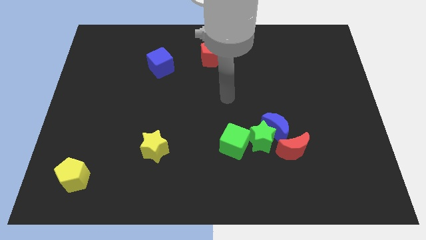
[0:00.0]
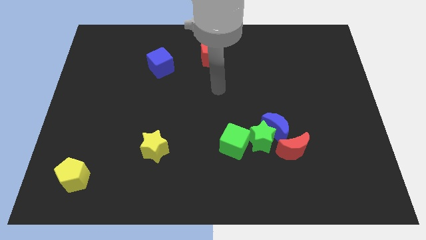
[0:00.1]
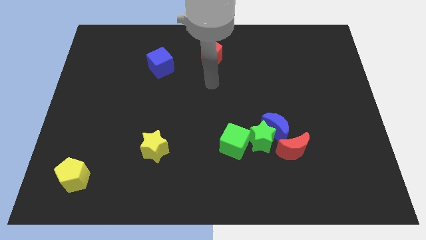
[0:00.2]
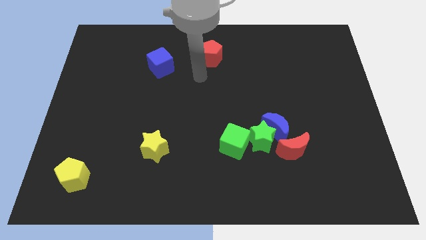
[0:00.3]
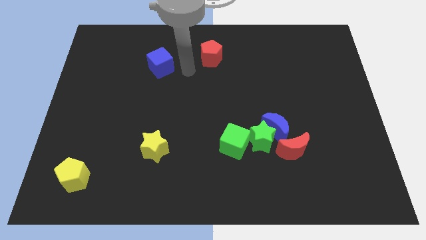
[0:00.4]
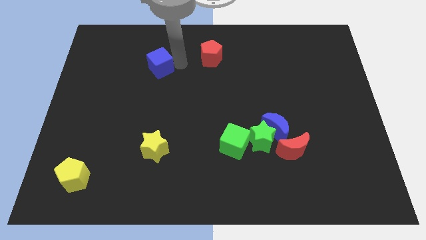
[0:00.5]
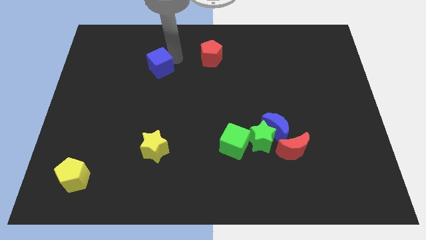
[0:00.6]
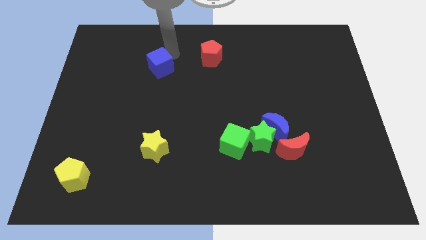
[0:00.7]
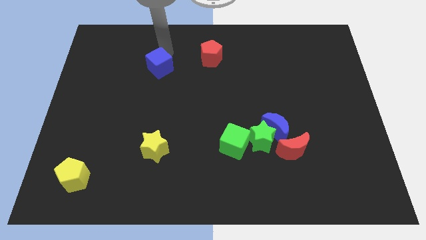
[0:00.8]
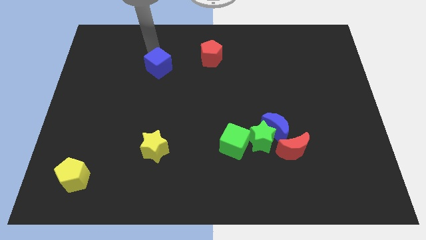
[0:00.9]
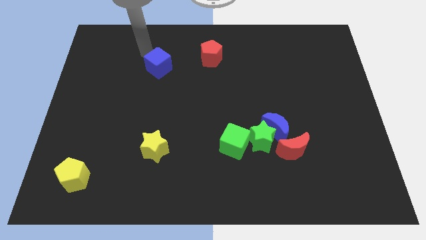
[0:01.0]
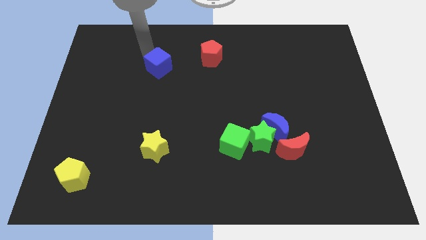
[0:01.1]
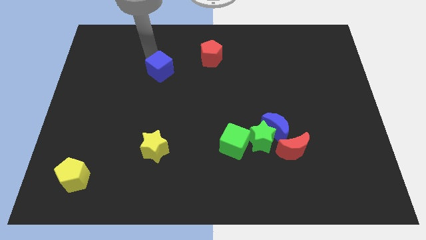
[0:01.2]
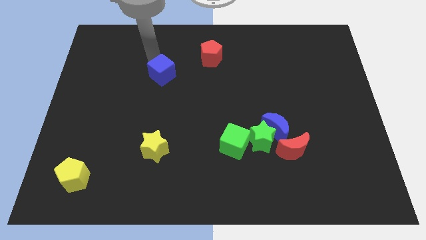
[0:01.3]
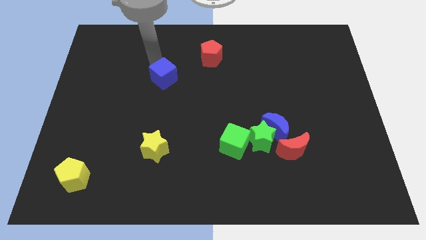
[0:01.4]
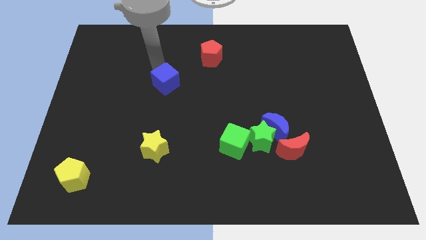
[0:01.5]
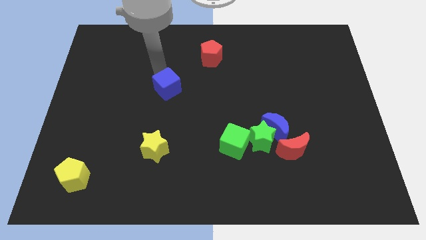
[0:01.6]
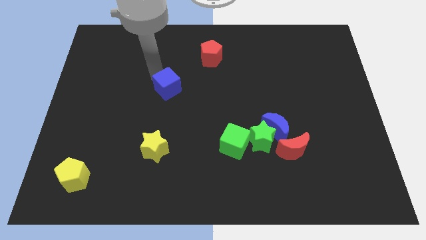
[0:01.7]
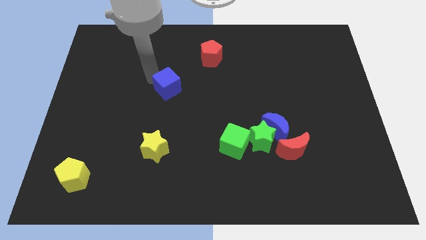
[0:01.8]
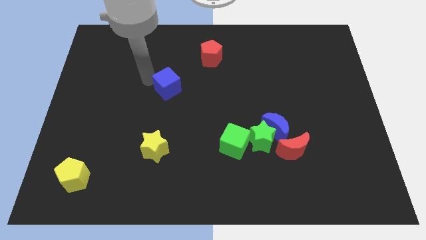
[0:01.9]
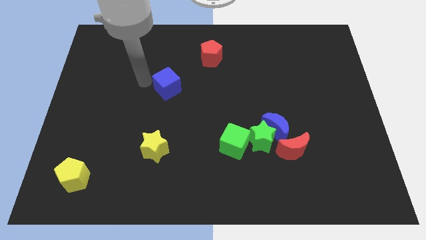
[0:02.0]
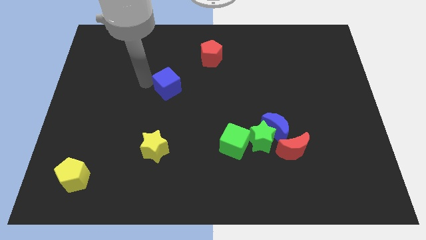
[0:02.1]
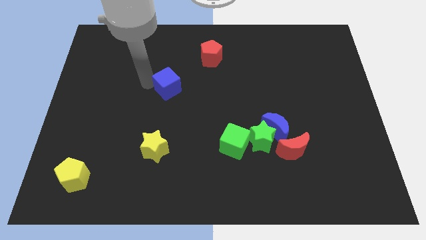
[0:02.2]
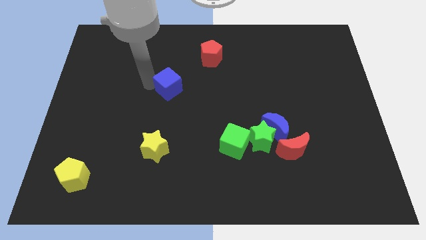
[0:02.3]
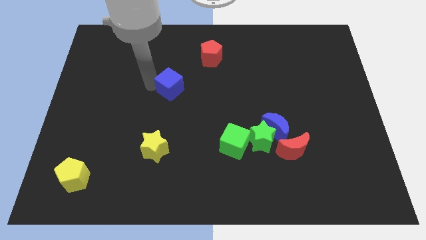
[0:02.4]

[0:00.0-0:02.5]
slightly push the blue cube downwards and then to the right

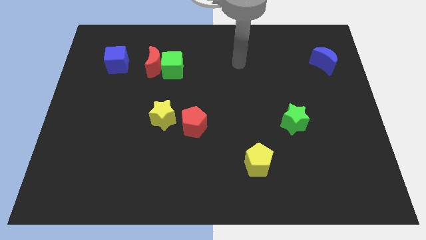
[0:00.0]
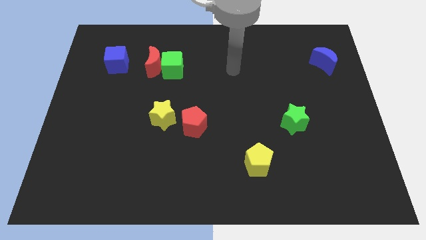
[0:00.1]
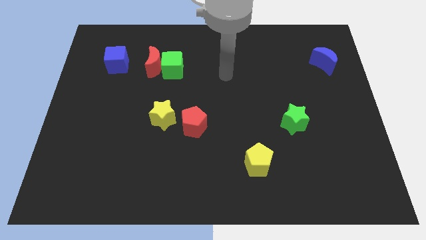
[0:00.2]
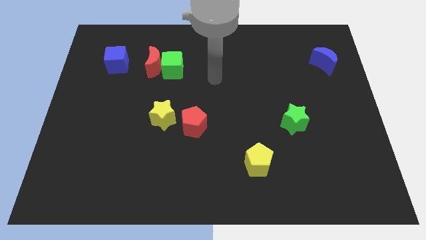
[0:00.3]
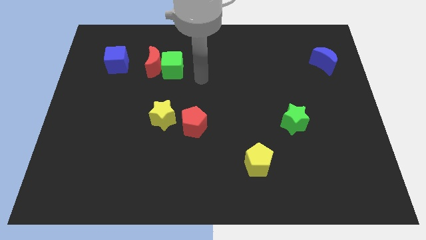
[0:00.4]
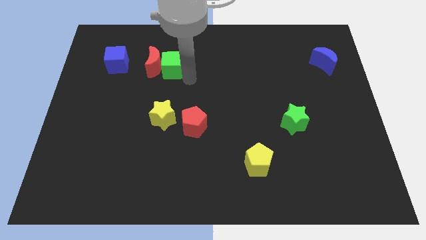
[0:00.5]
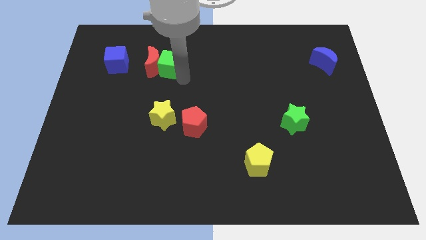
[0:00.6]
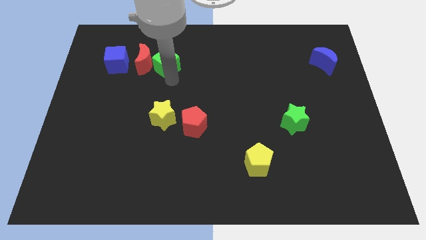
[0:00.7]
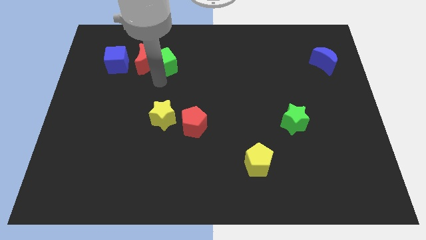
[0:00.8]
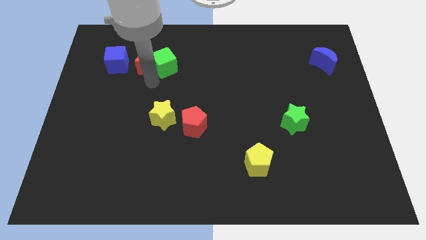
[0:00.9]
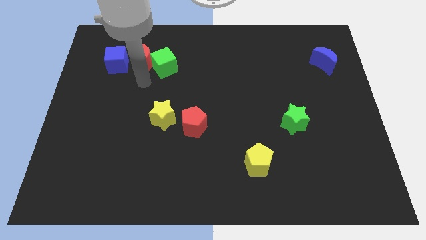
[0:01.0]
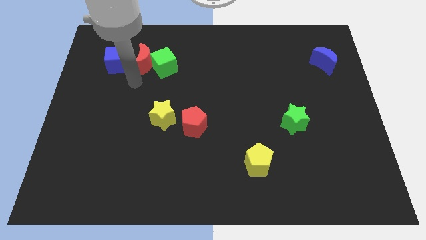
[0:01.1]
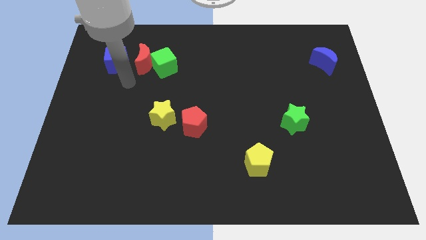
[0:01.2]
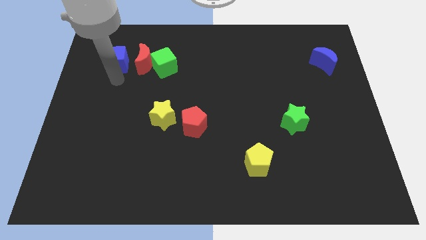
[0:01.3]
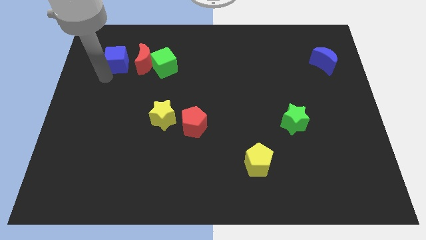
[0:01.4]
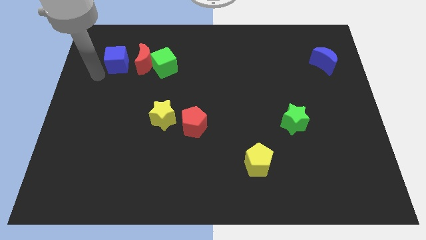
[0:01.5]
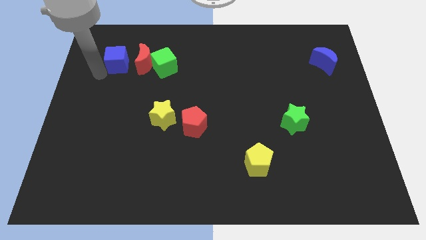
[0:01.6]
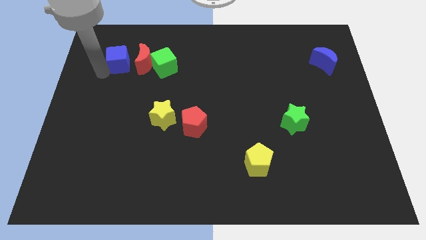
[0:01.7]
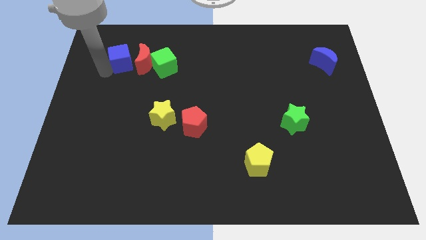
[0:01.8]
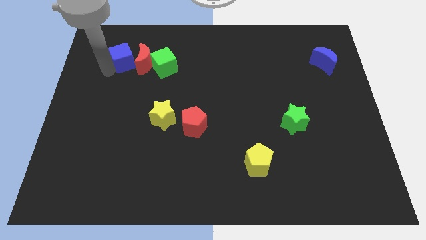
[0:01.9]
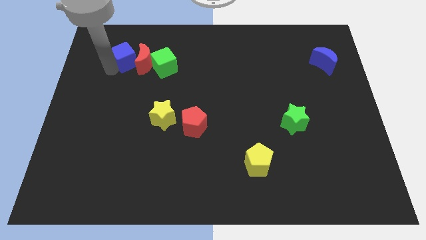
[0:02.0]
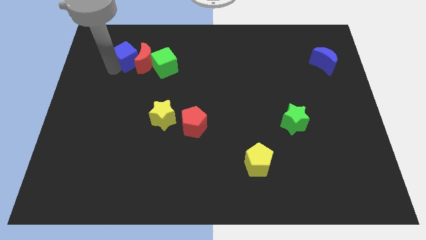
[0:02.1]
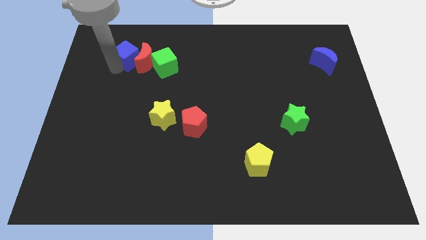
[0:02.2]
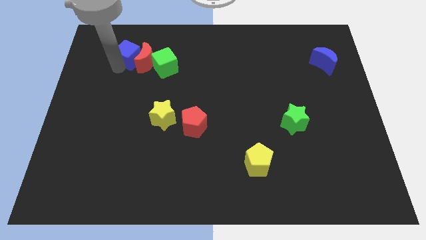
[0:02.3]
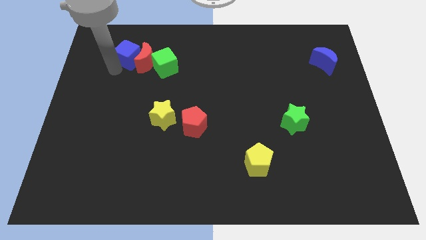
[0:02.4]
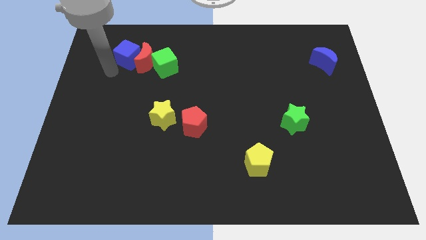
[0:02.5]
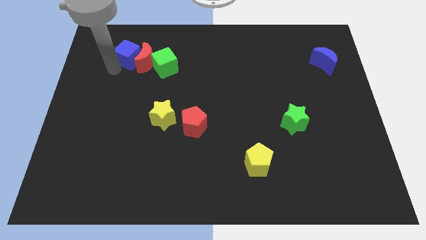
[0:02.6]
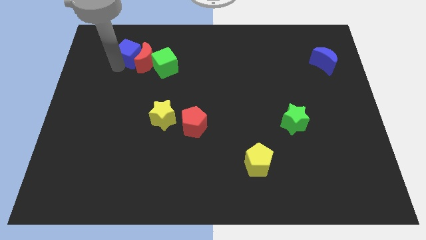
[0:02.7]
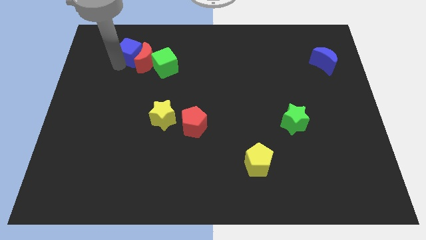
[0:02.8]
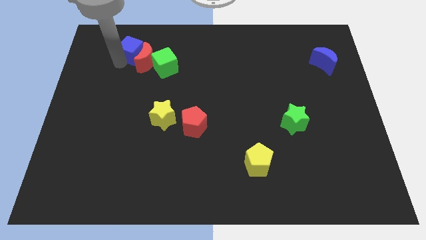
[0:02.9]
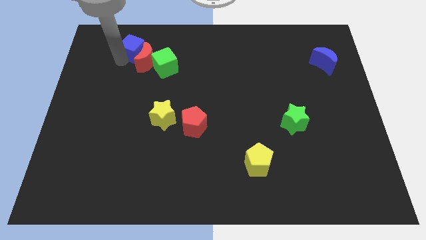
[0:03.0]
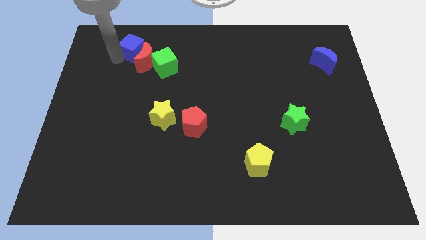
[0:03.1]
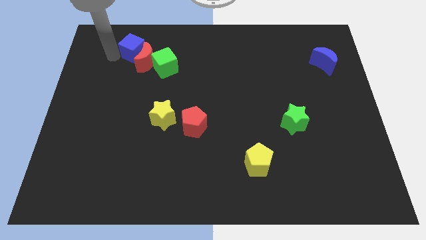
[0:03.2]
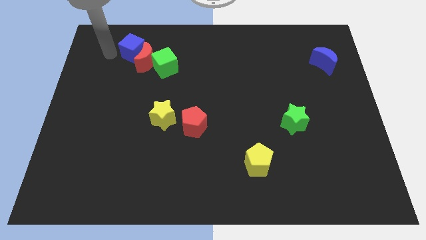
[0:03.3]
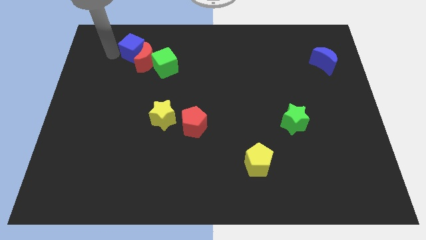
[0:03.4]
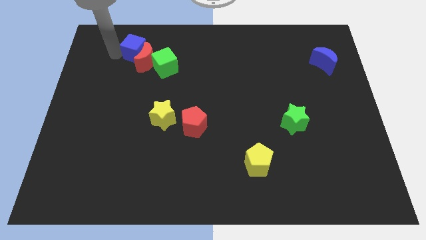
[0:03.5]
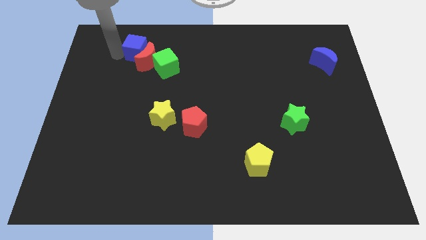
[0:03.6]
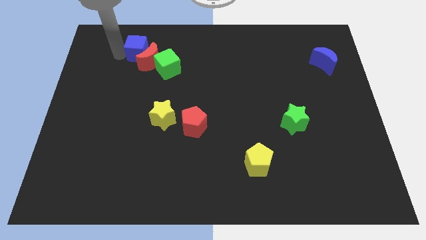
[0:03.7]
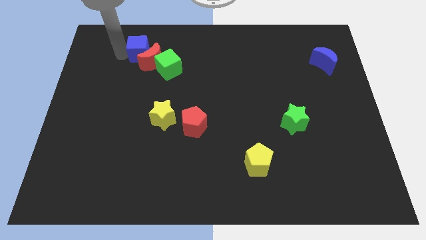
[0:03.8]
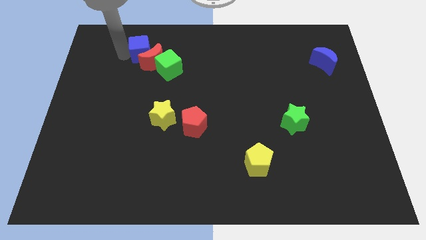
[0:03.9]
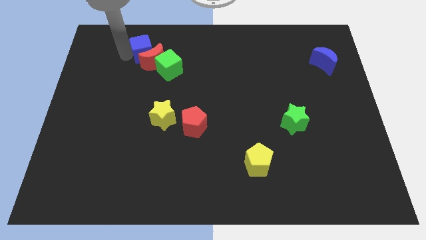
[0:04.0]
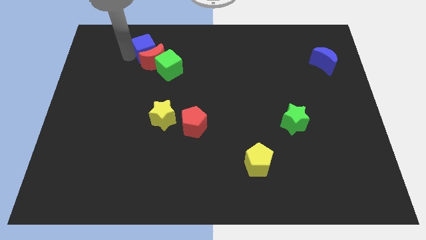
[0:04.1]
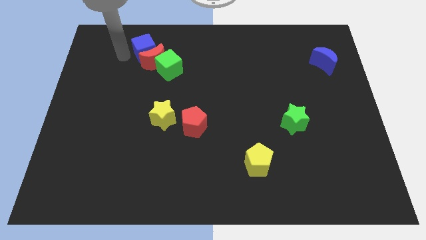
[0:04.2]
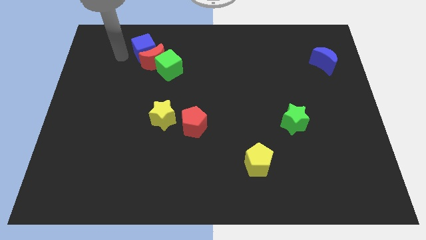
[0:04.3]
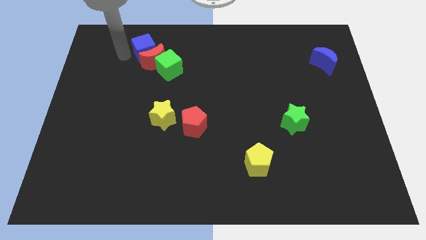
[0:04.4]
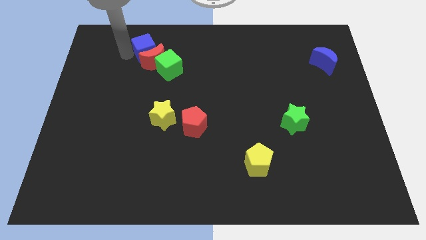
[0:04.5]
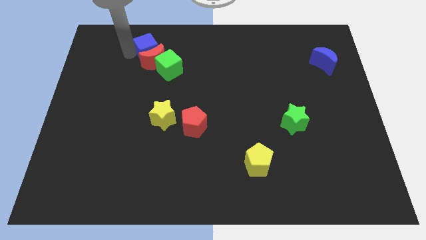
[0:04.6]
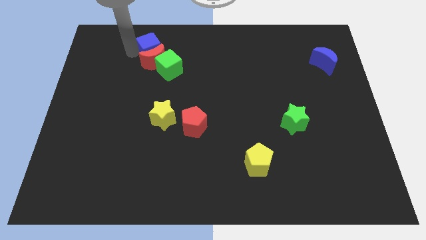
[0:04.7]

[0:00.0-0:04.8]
slightly slide the blue cube to the right

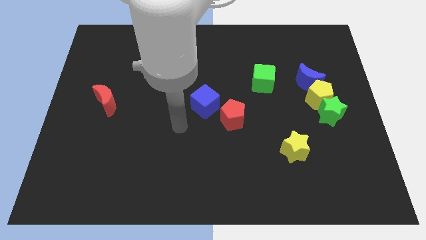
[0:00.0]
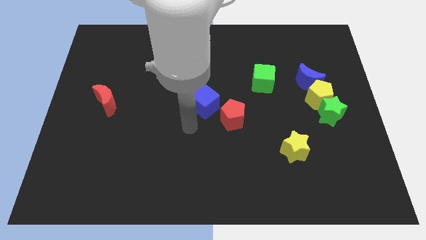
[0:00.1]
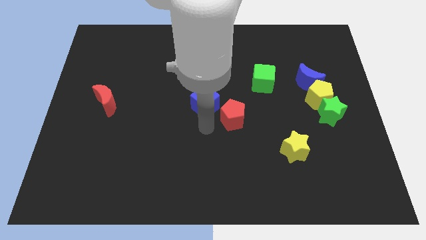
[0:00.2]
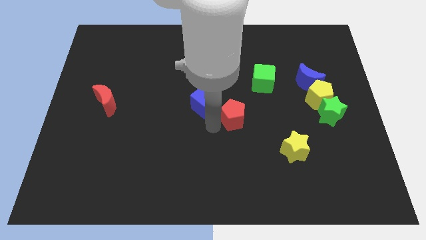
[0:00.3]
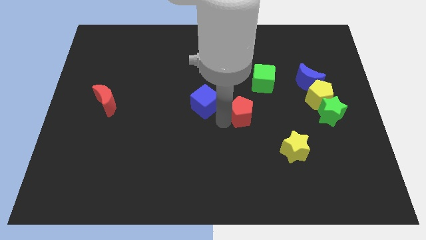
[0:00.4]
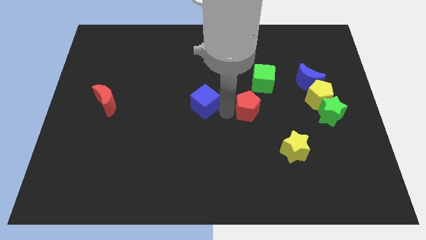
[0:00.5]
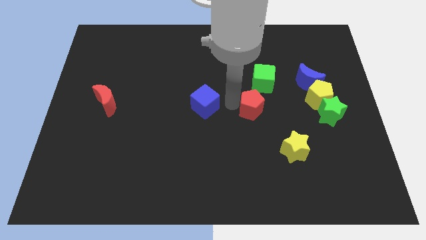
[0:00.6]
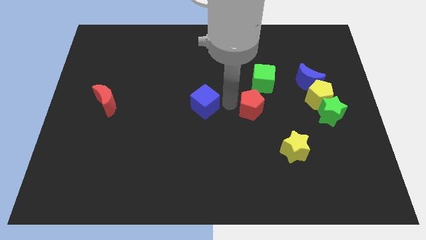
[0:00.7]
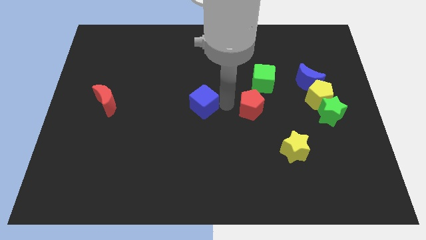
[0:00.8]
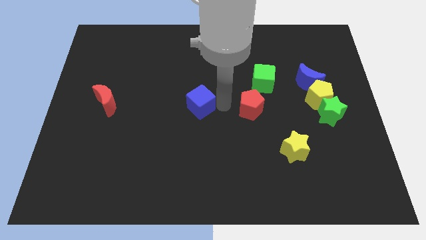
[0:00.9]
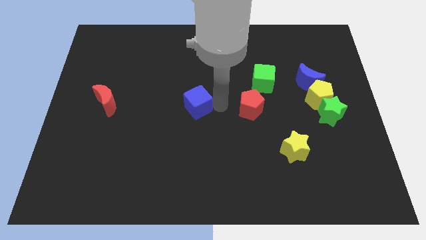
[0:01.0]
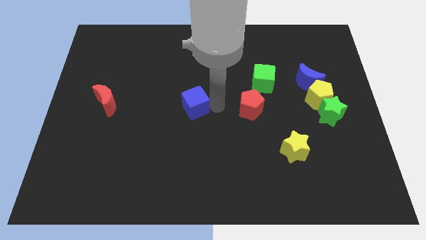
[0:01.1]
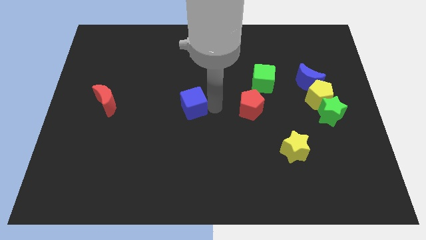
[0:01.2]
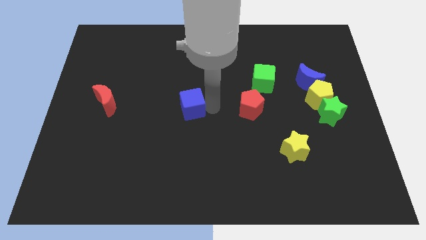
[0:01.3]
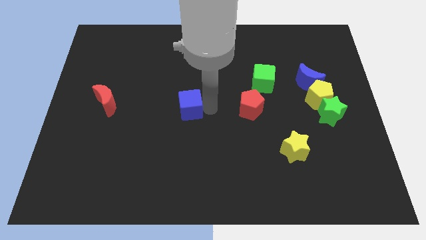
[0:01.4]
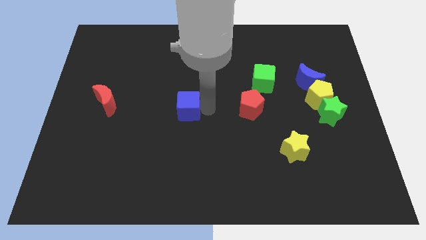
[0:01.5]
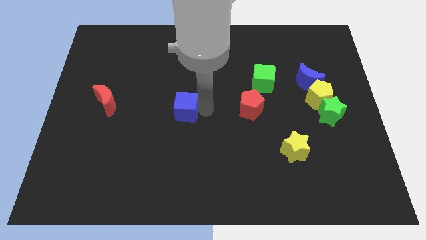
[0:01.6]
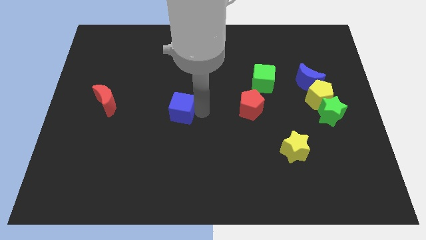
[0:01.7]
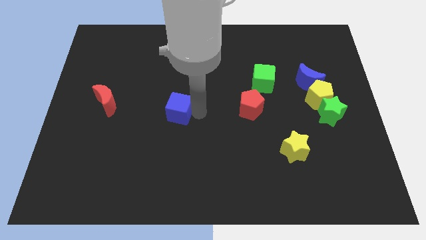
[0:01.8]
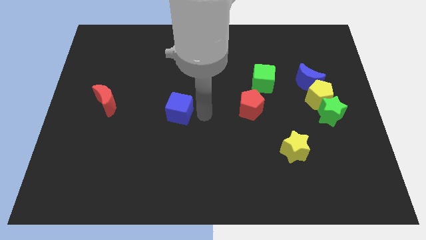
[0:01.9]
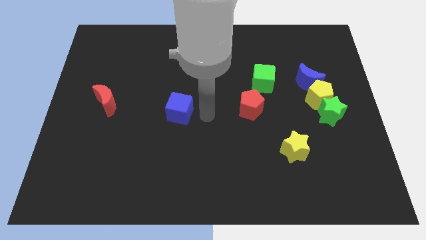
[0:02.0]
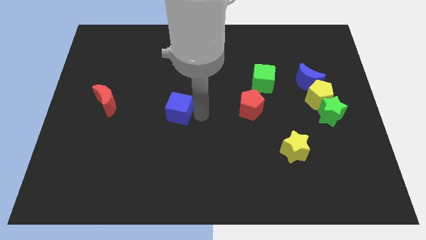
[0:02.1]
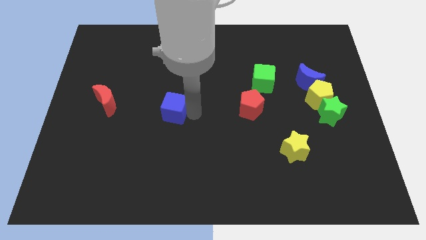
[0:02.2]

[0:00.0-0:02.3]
slightly slide the blue cube to the left
